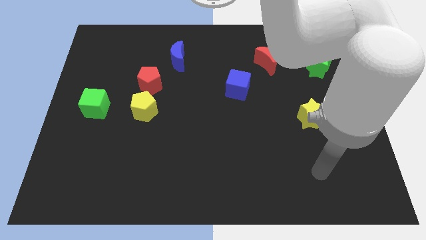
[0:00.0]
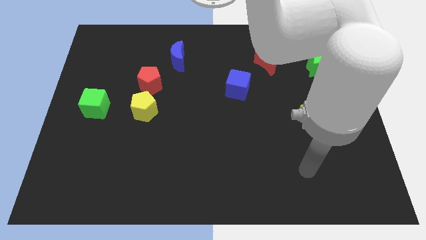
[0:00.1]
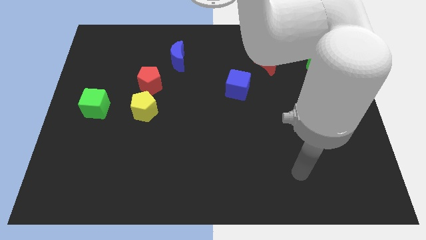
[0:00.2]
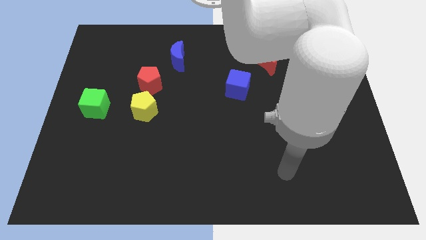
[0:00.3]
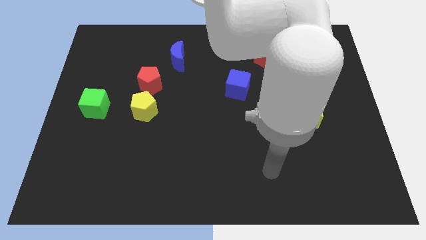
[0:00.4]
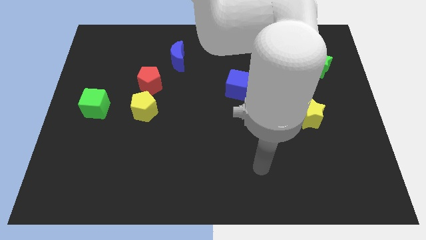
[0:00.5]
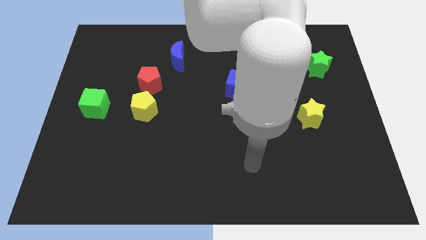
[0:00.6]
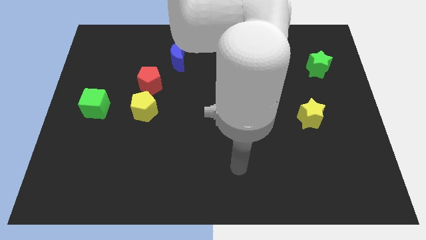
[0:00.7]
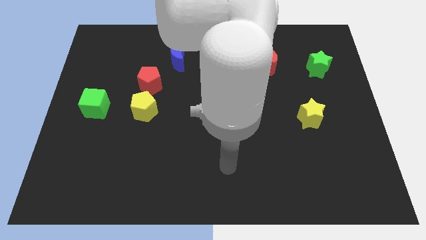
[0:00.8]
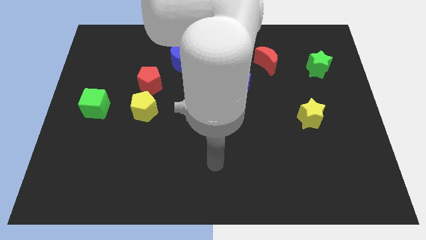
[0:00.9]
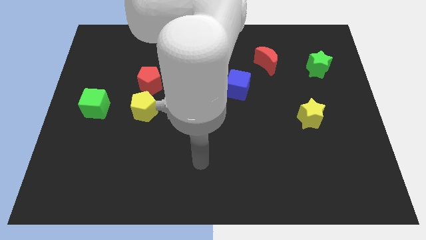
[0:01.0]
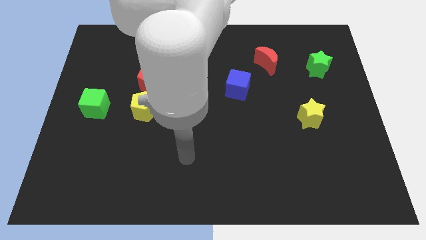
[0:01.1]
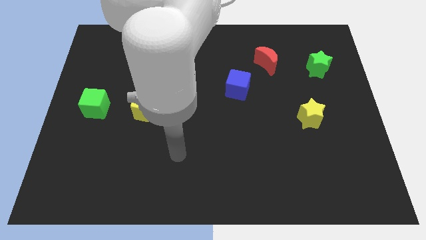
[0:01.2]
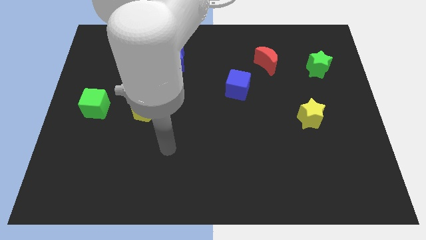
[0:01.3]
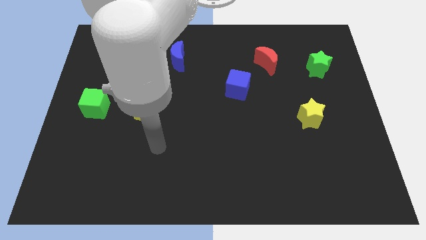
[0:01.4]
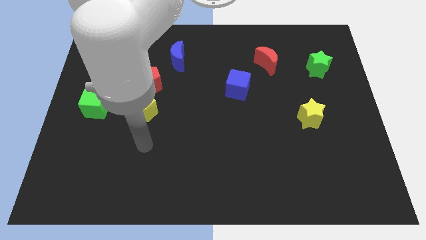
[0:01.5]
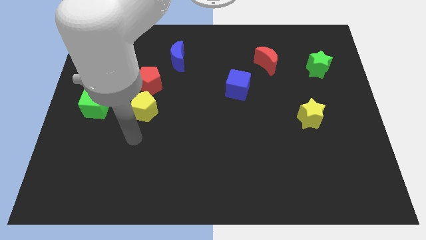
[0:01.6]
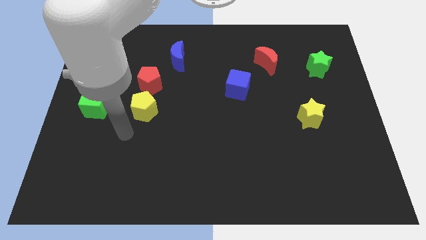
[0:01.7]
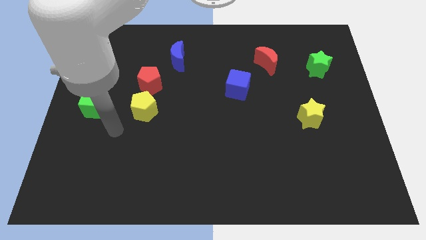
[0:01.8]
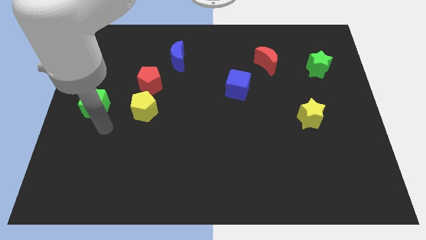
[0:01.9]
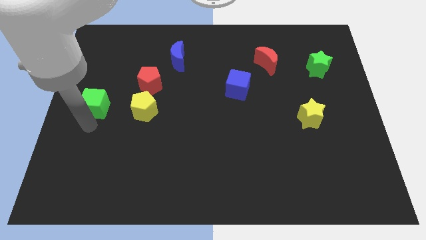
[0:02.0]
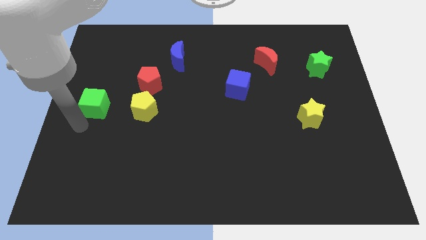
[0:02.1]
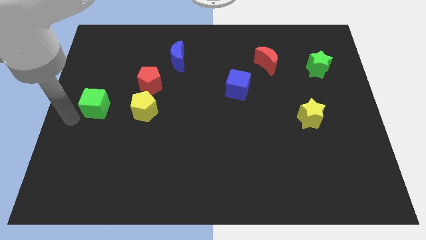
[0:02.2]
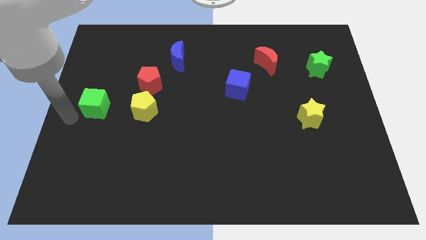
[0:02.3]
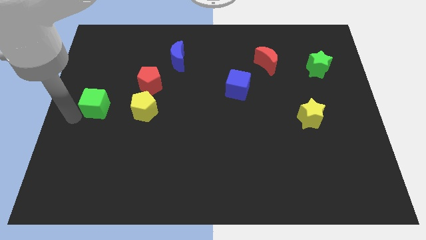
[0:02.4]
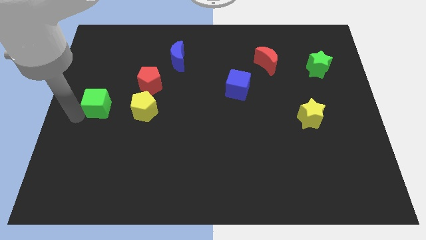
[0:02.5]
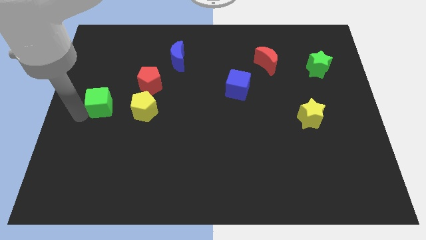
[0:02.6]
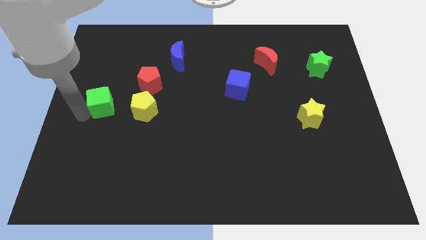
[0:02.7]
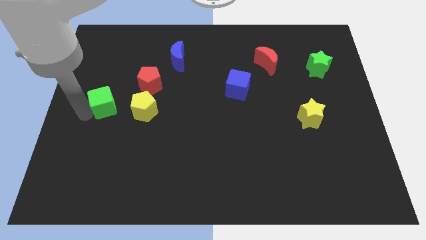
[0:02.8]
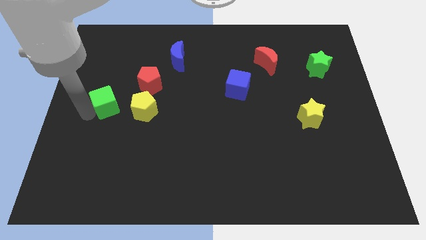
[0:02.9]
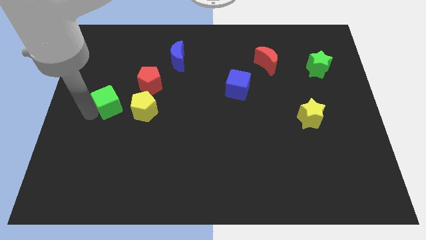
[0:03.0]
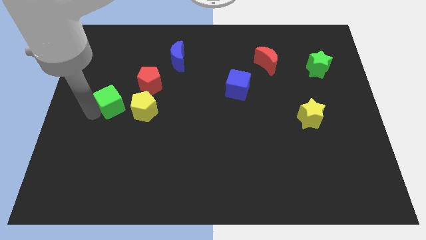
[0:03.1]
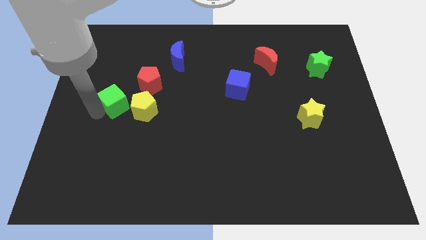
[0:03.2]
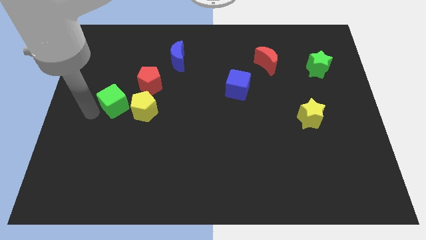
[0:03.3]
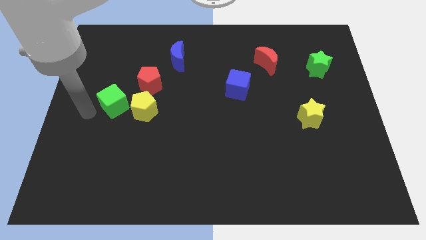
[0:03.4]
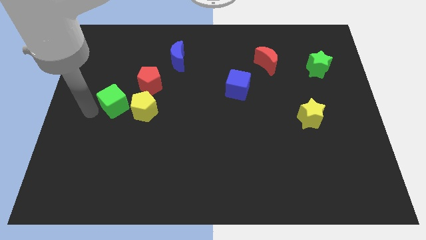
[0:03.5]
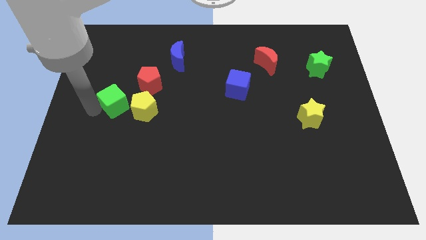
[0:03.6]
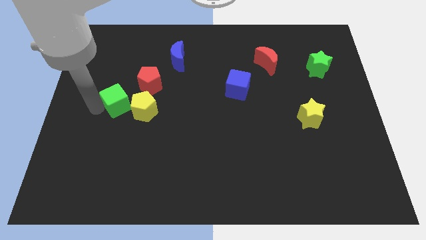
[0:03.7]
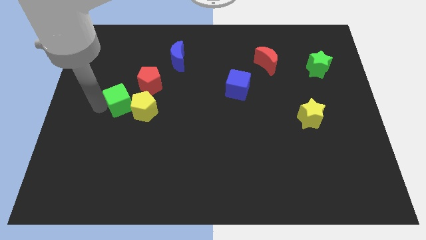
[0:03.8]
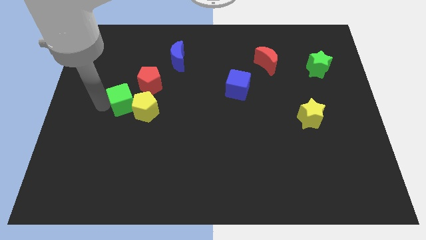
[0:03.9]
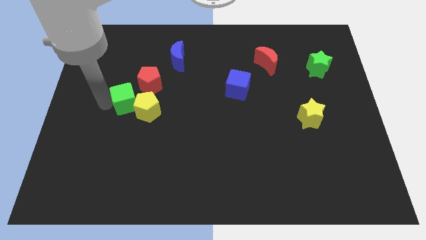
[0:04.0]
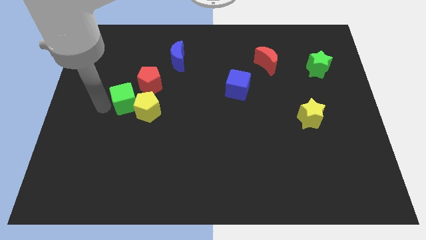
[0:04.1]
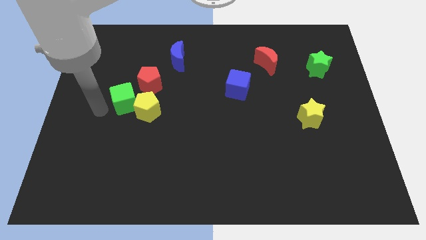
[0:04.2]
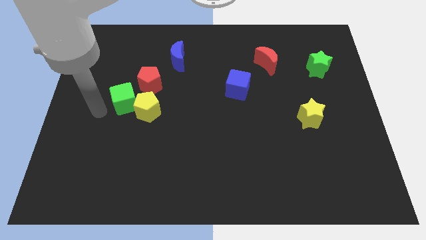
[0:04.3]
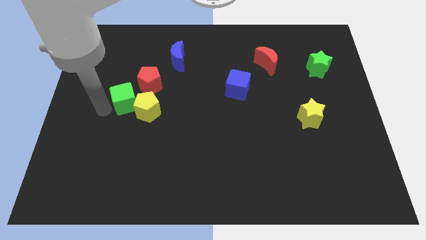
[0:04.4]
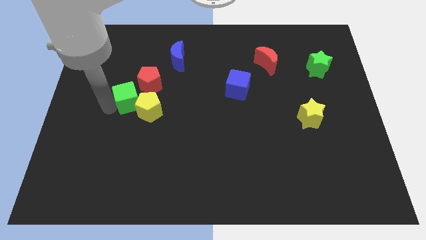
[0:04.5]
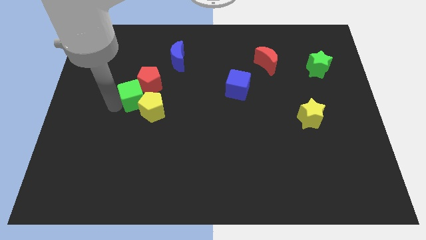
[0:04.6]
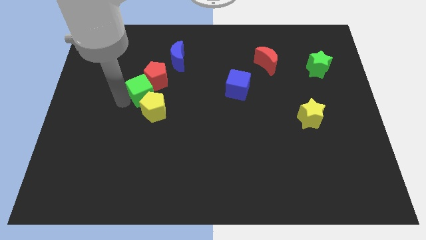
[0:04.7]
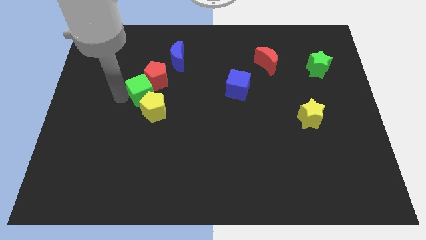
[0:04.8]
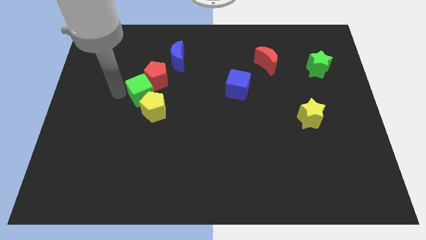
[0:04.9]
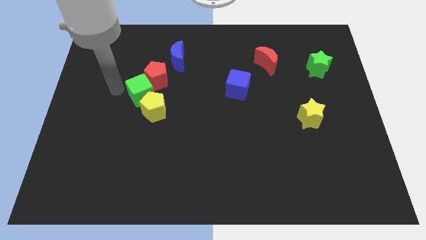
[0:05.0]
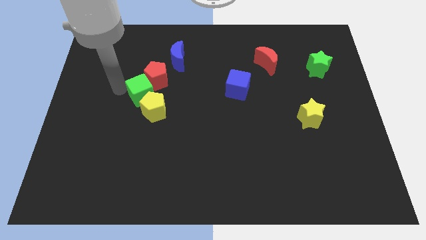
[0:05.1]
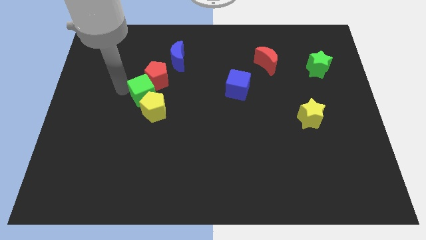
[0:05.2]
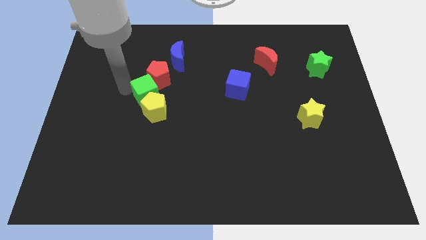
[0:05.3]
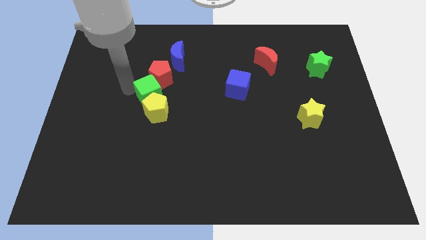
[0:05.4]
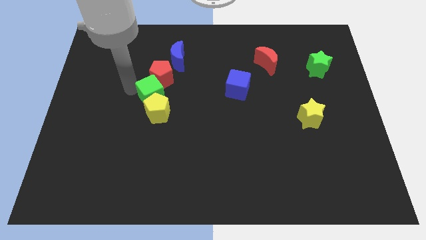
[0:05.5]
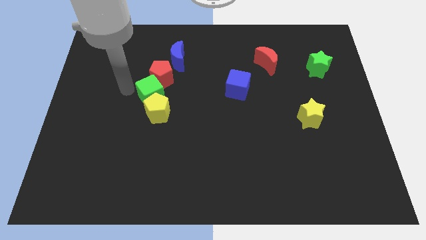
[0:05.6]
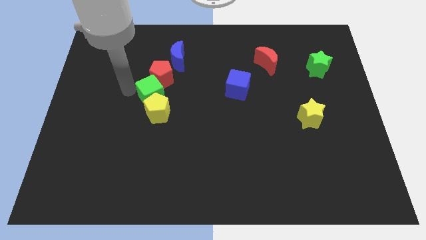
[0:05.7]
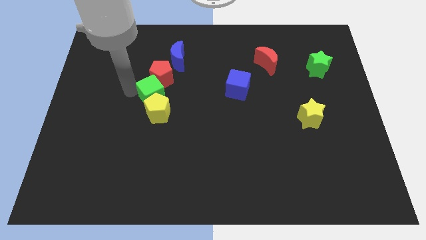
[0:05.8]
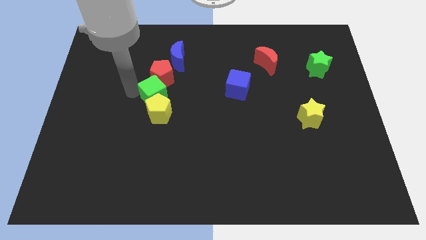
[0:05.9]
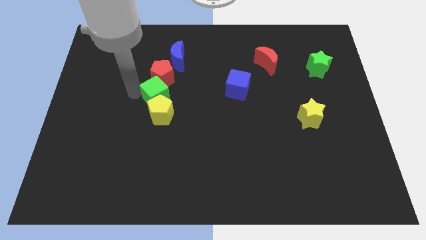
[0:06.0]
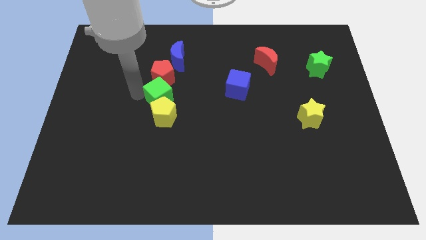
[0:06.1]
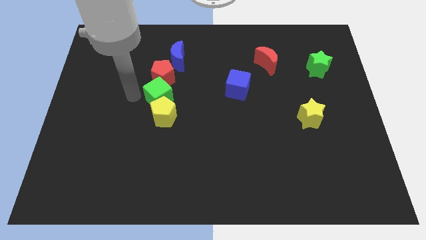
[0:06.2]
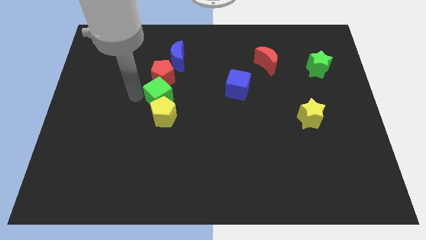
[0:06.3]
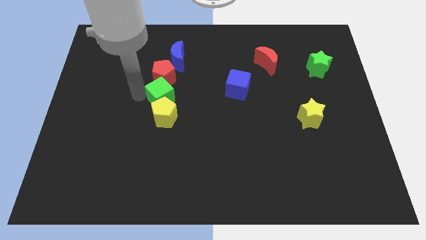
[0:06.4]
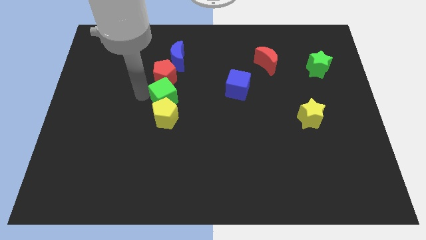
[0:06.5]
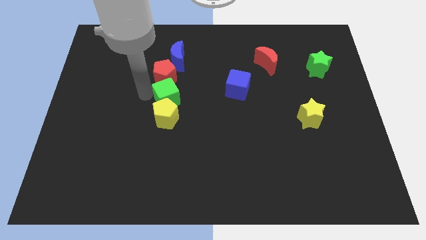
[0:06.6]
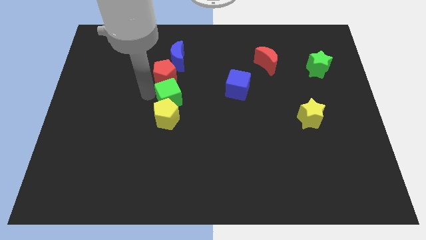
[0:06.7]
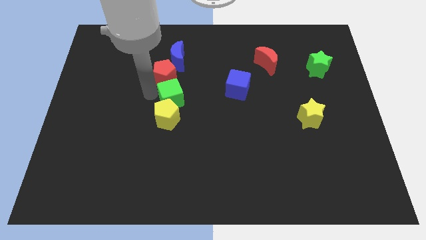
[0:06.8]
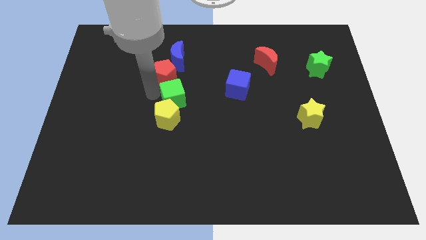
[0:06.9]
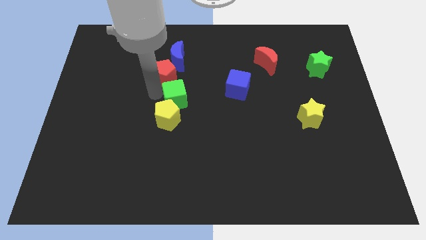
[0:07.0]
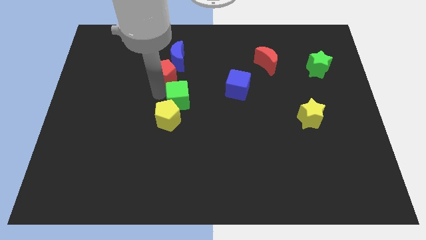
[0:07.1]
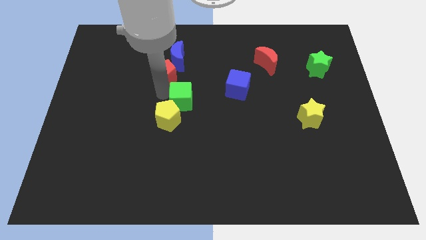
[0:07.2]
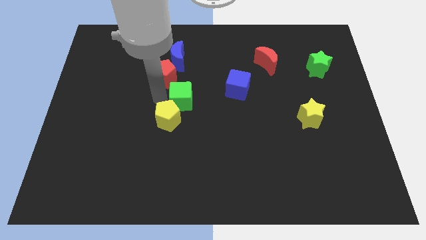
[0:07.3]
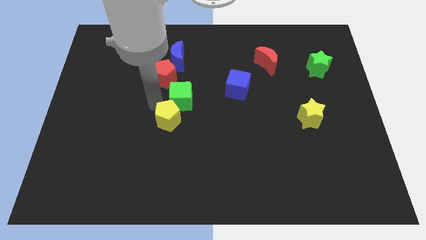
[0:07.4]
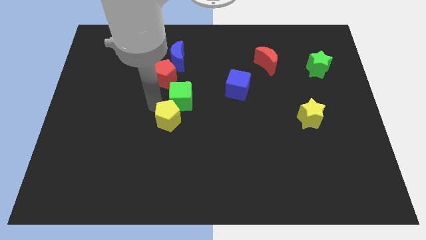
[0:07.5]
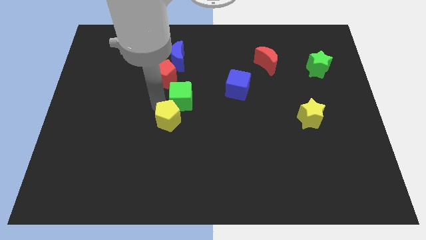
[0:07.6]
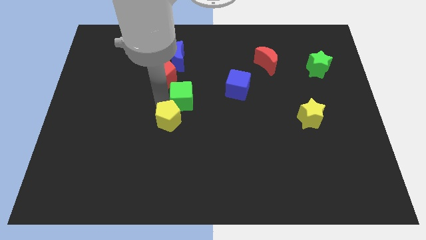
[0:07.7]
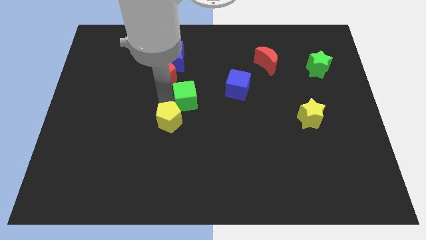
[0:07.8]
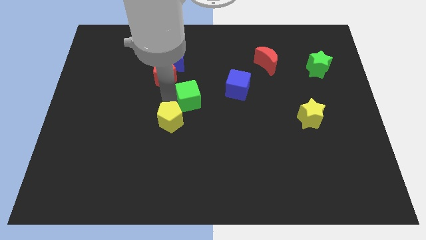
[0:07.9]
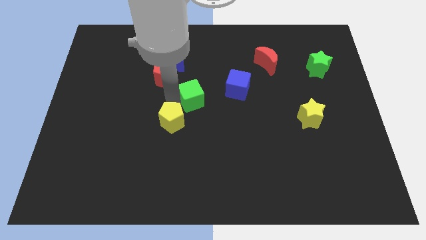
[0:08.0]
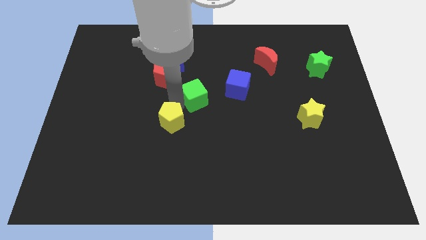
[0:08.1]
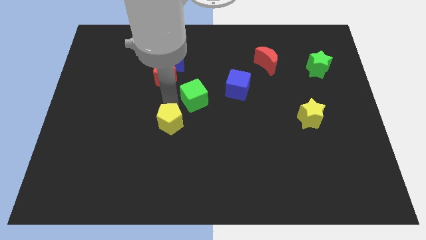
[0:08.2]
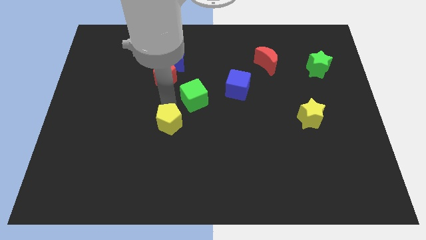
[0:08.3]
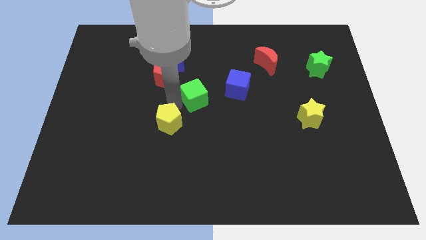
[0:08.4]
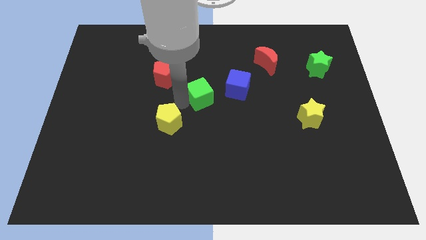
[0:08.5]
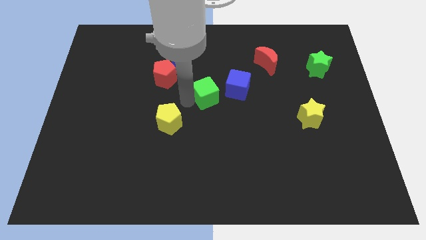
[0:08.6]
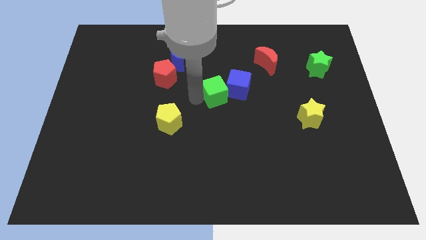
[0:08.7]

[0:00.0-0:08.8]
put the green cube towards the blue cube

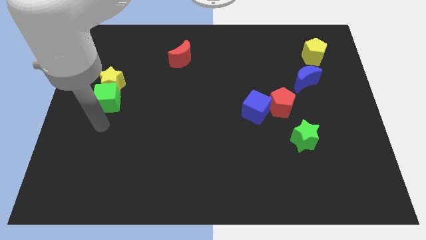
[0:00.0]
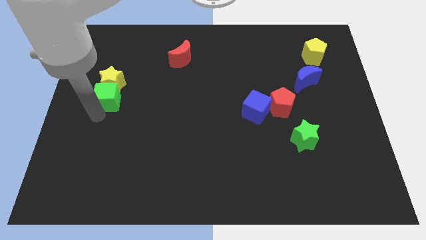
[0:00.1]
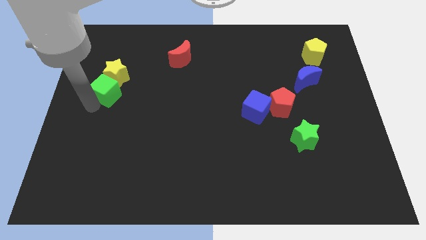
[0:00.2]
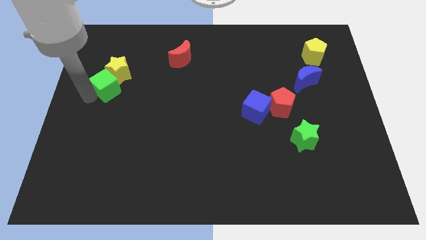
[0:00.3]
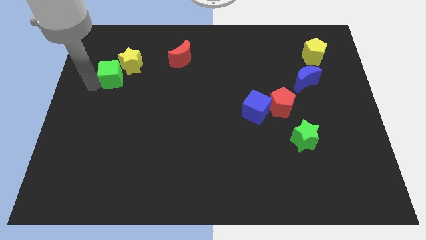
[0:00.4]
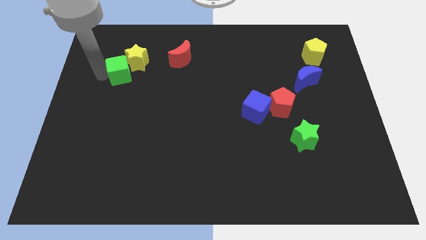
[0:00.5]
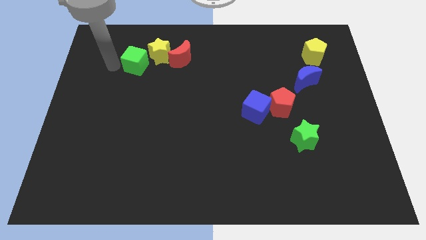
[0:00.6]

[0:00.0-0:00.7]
slide the yellow star close to the red moon
